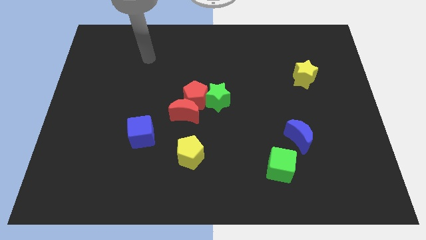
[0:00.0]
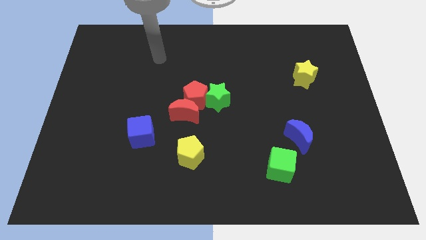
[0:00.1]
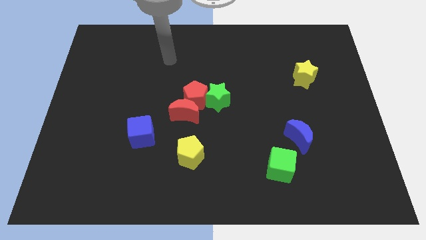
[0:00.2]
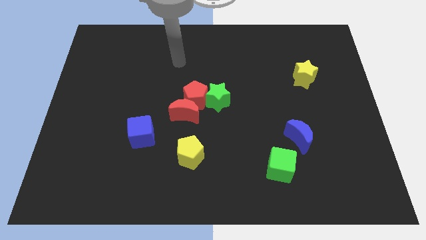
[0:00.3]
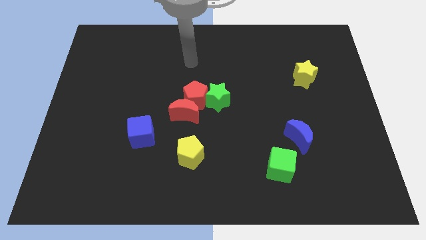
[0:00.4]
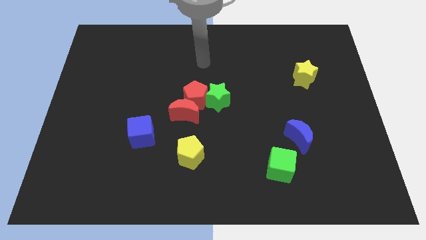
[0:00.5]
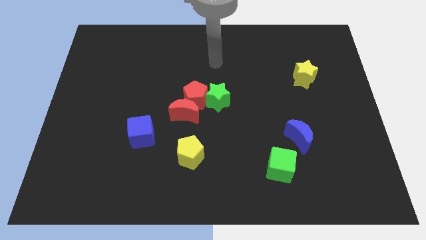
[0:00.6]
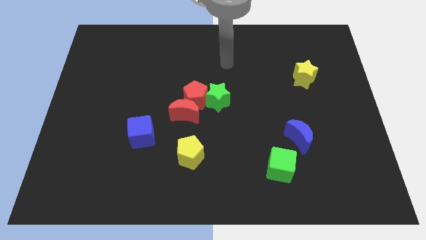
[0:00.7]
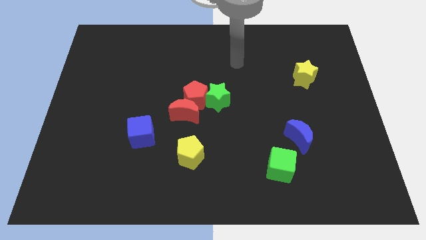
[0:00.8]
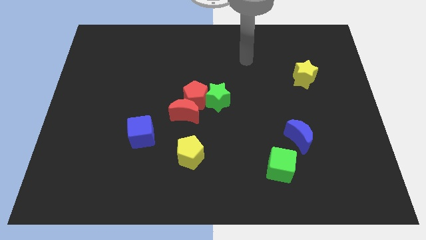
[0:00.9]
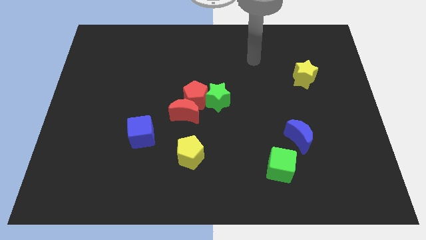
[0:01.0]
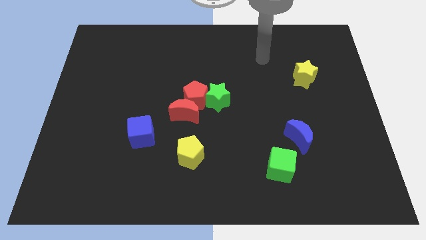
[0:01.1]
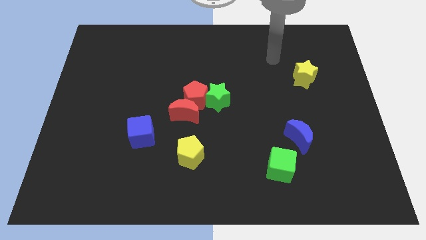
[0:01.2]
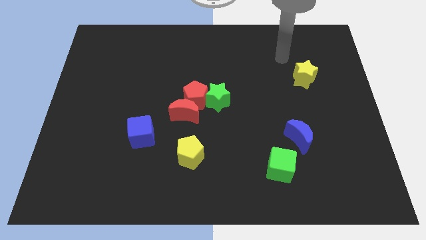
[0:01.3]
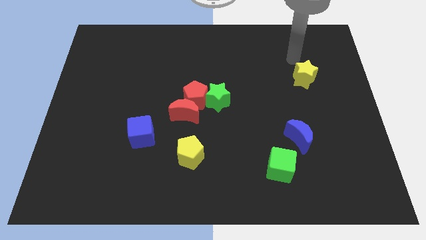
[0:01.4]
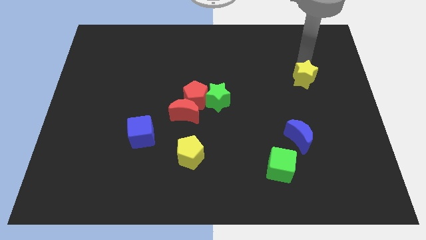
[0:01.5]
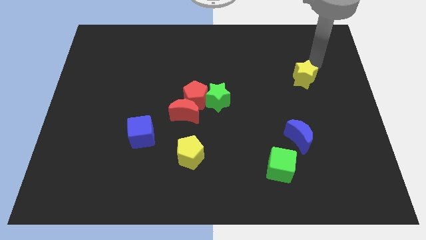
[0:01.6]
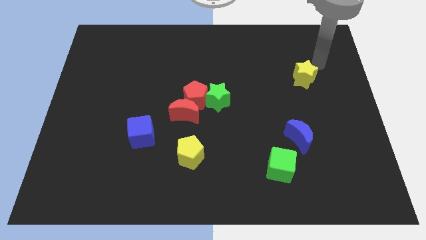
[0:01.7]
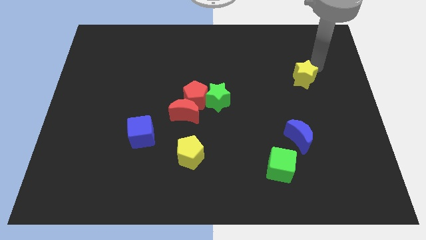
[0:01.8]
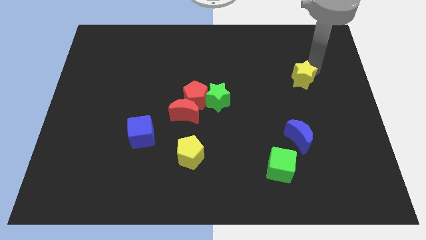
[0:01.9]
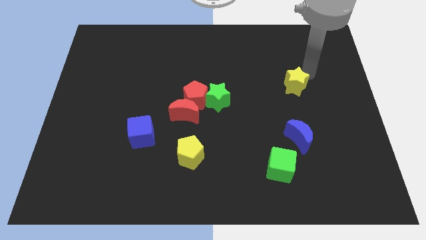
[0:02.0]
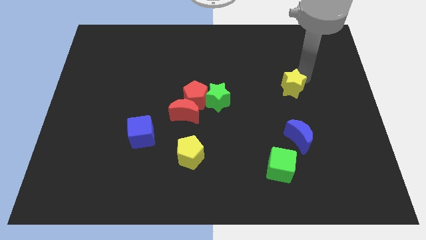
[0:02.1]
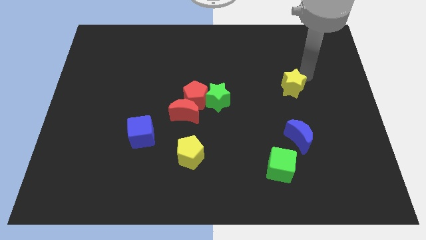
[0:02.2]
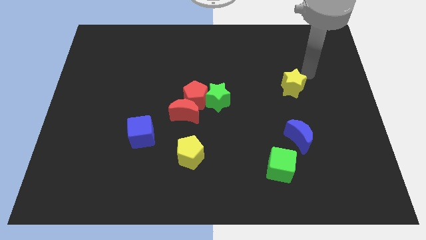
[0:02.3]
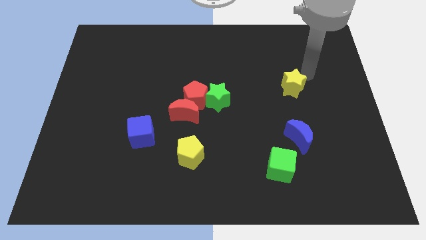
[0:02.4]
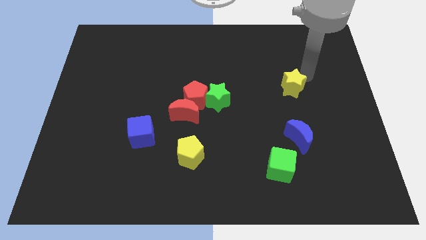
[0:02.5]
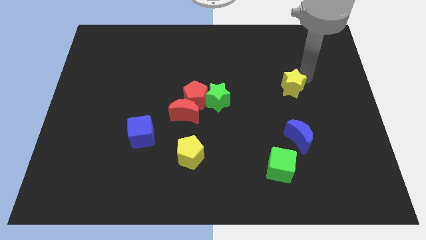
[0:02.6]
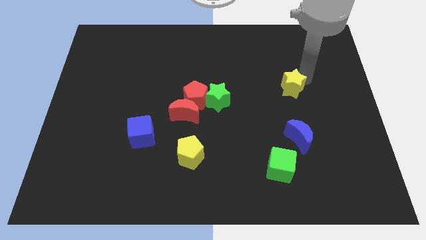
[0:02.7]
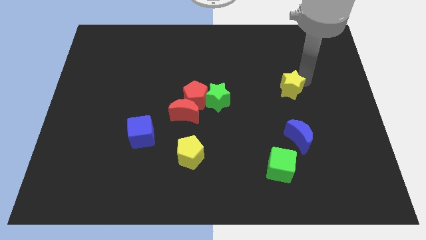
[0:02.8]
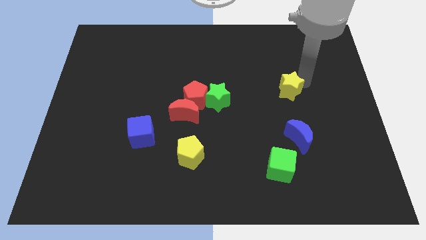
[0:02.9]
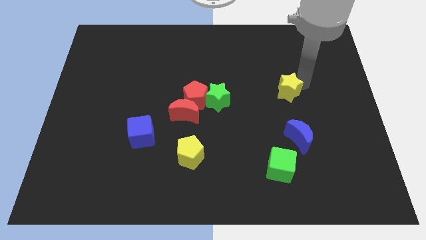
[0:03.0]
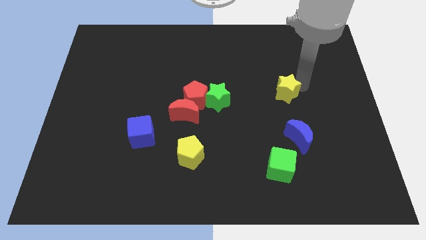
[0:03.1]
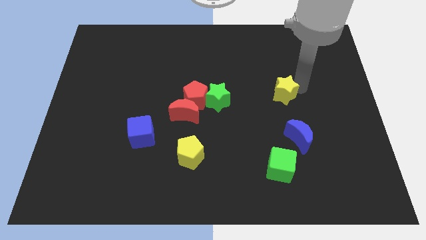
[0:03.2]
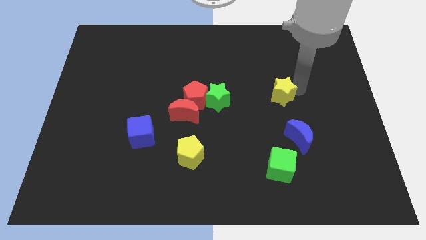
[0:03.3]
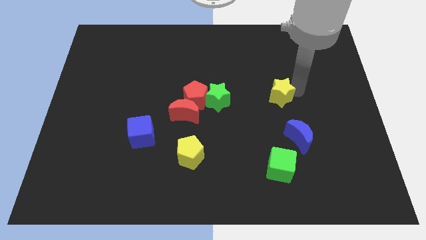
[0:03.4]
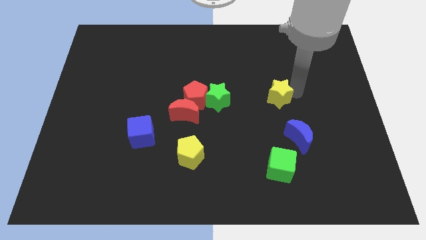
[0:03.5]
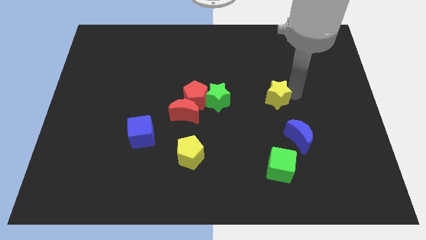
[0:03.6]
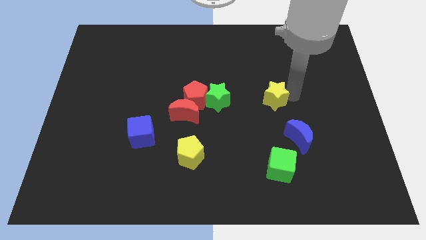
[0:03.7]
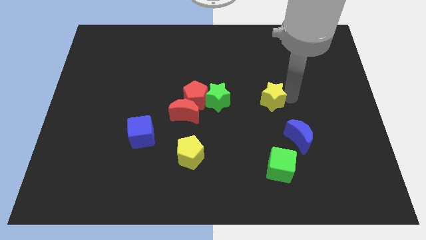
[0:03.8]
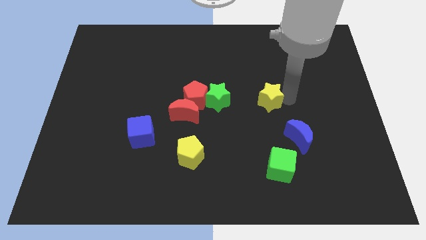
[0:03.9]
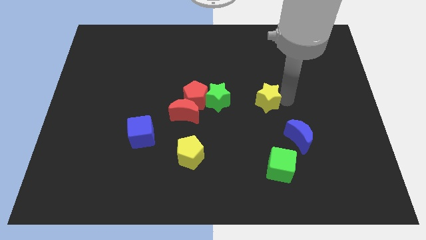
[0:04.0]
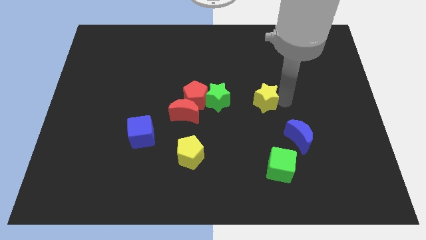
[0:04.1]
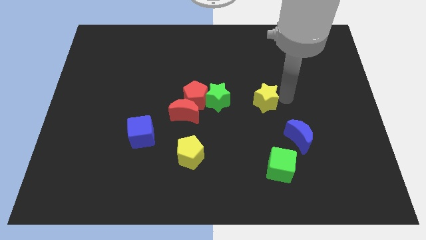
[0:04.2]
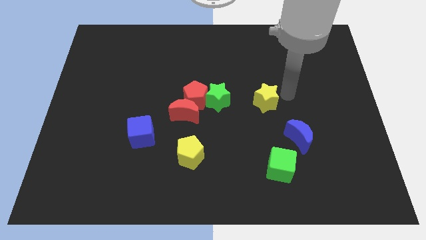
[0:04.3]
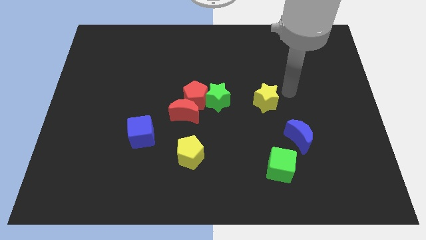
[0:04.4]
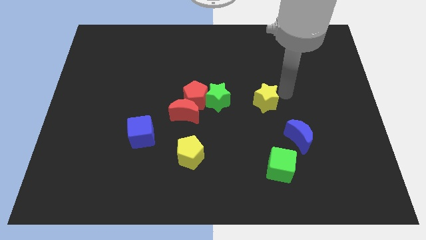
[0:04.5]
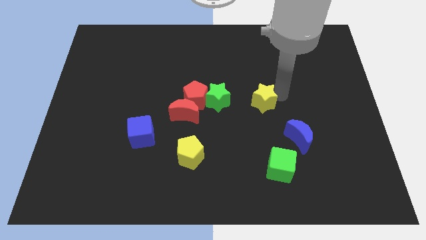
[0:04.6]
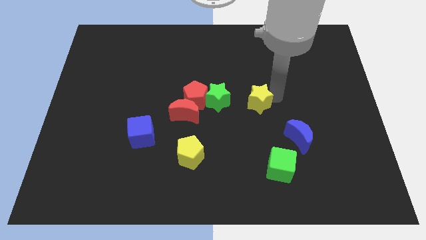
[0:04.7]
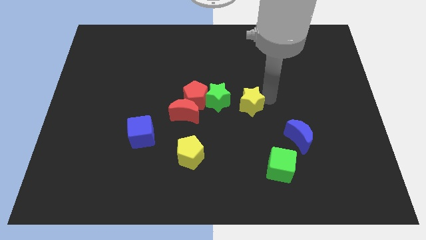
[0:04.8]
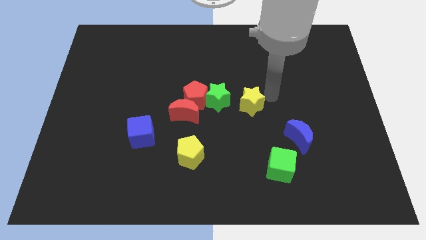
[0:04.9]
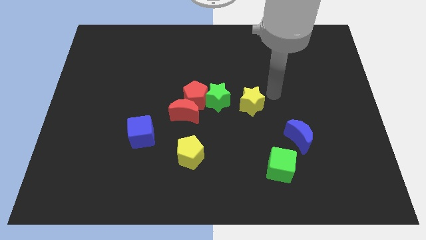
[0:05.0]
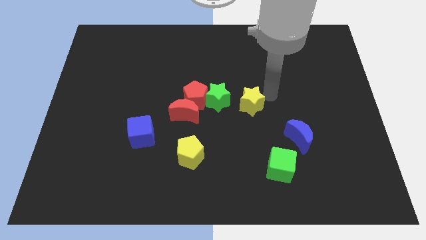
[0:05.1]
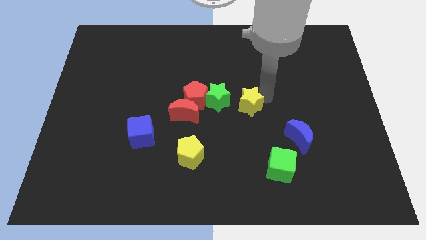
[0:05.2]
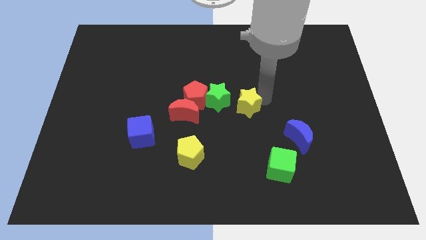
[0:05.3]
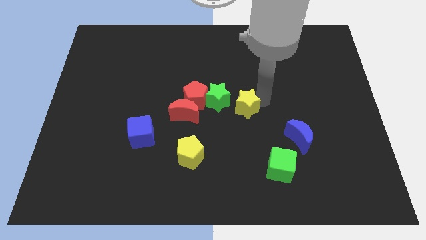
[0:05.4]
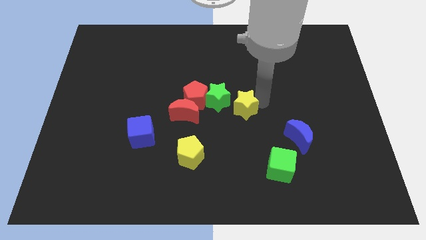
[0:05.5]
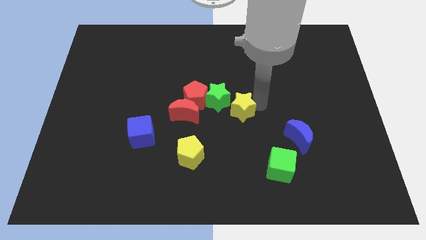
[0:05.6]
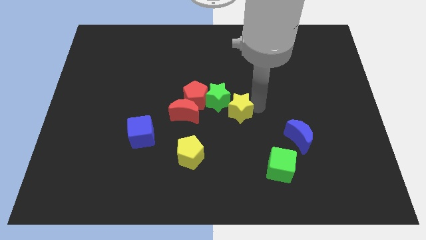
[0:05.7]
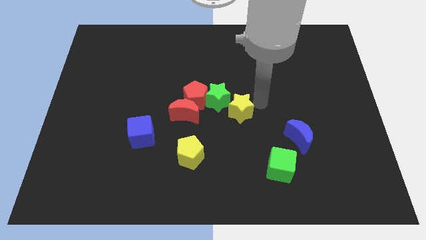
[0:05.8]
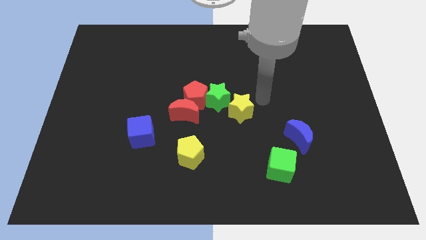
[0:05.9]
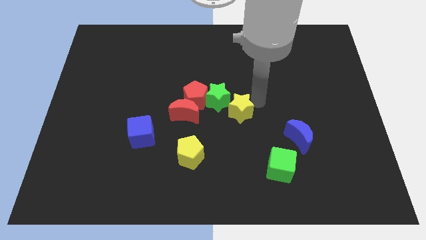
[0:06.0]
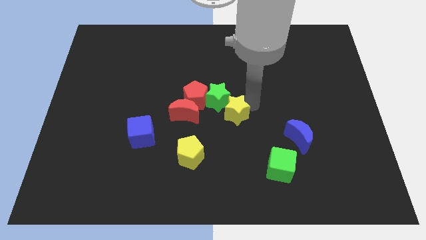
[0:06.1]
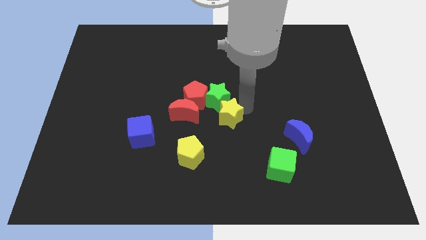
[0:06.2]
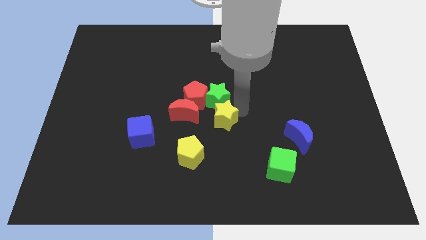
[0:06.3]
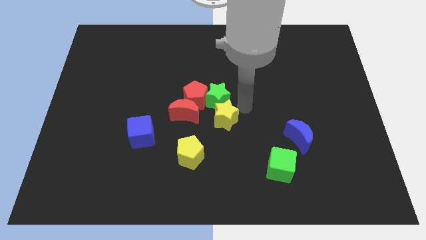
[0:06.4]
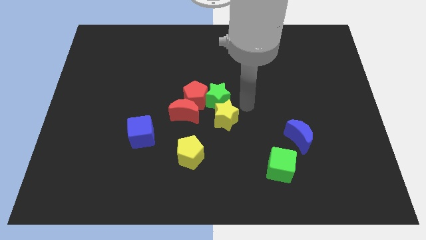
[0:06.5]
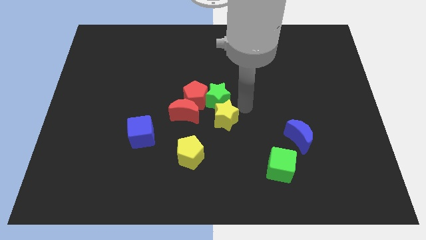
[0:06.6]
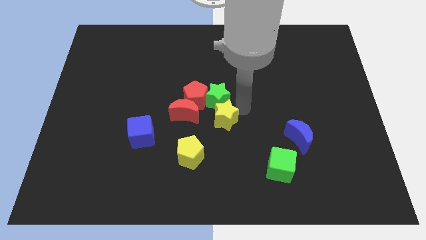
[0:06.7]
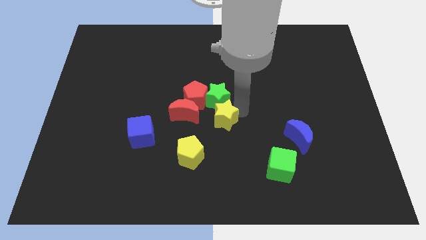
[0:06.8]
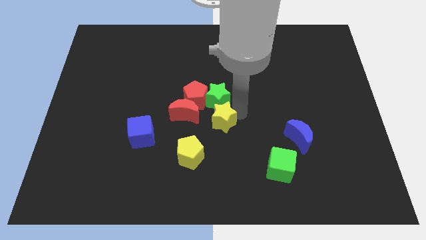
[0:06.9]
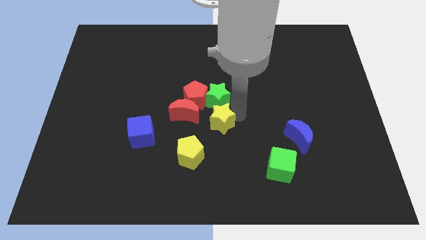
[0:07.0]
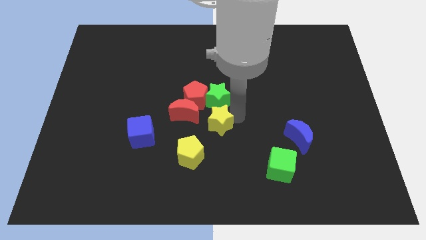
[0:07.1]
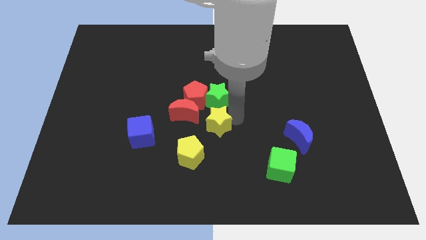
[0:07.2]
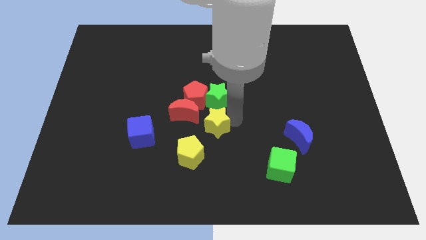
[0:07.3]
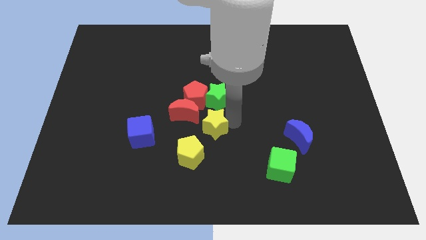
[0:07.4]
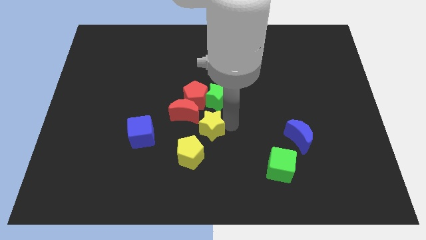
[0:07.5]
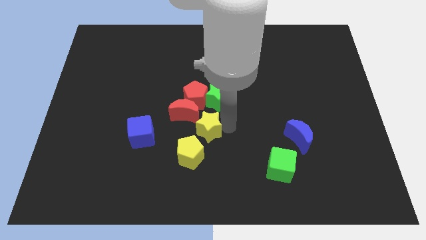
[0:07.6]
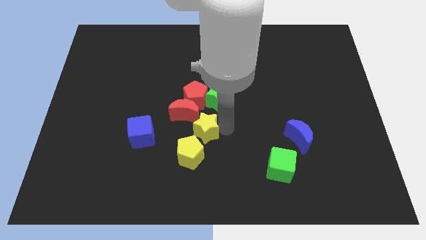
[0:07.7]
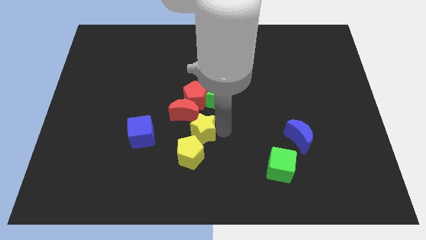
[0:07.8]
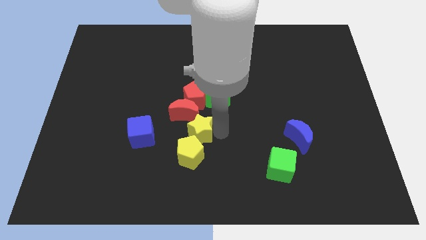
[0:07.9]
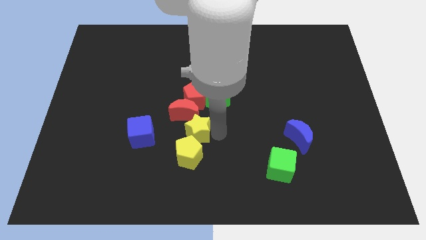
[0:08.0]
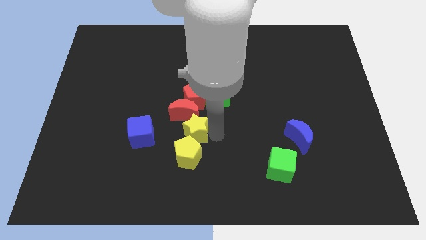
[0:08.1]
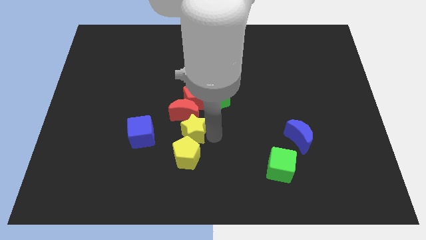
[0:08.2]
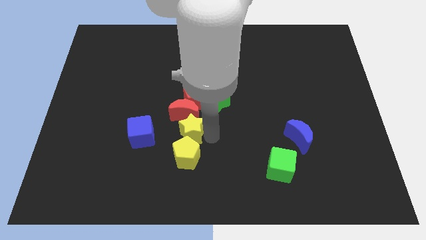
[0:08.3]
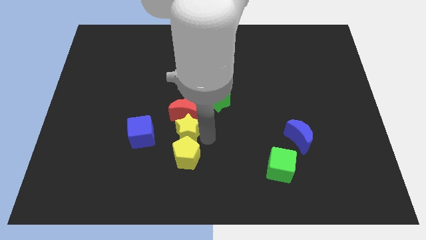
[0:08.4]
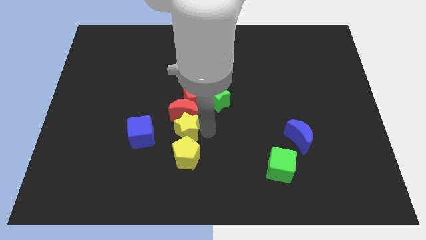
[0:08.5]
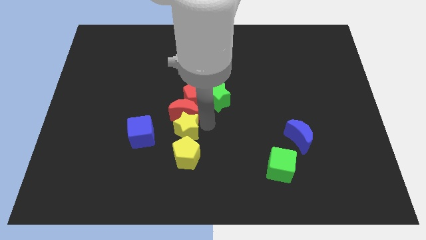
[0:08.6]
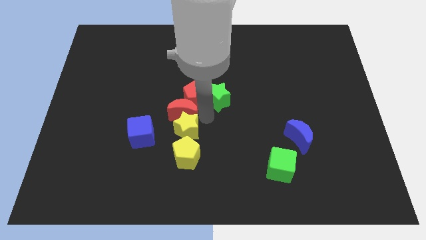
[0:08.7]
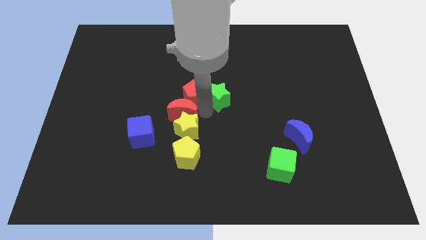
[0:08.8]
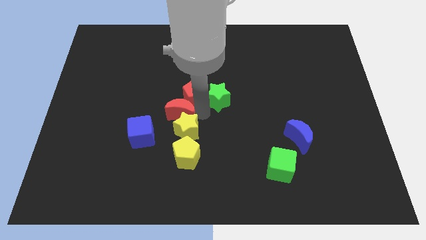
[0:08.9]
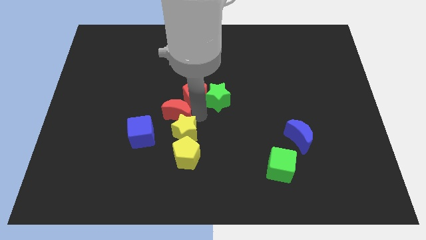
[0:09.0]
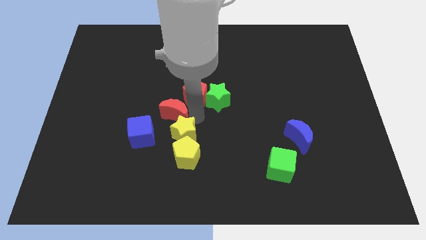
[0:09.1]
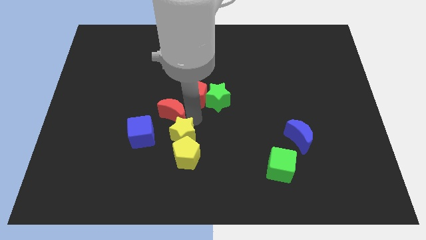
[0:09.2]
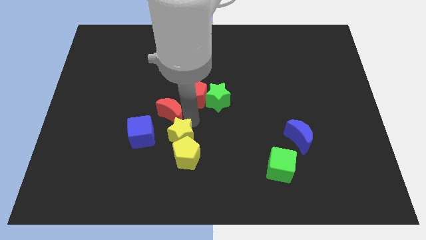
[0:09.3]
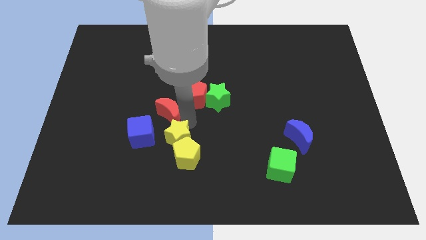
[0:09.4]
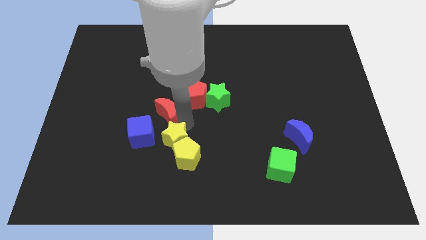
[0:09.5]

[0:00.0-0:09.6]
push the yellow star to the bottom right of the blue cube
